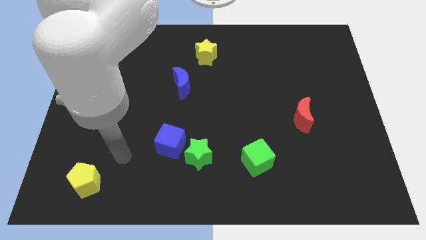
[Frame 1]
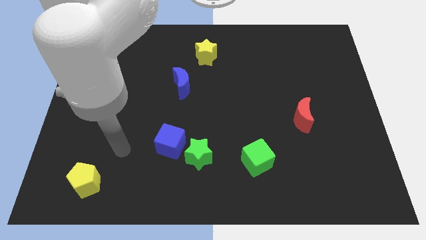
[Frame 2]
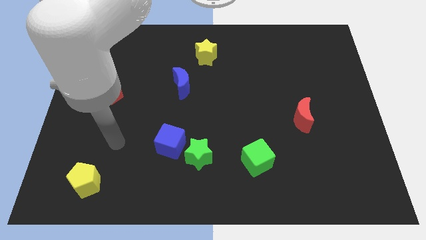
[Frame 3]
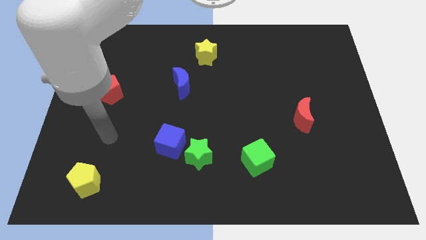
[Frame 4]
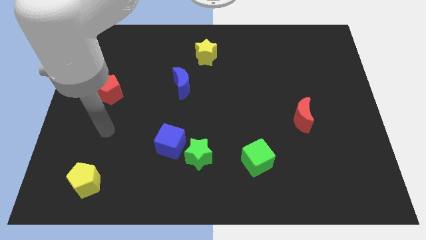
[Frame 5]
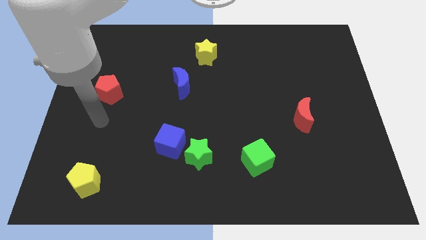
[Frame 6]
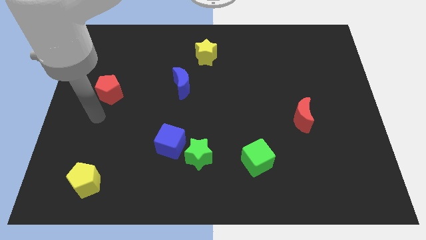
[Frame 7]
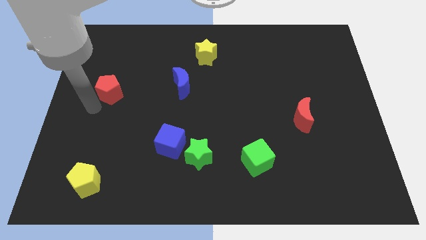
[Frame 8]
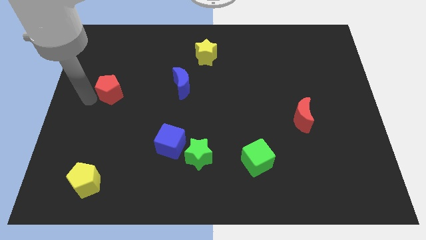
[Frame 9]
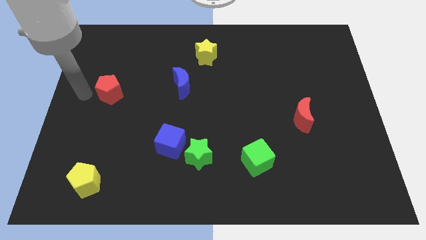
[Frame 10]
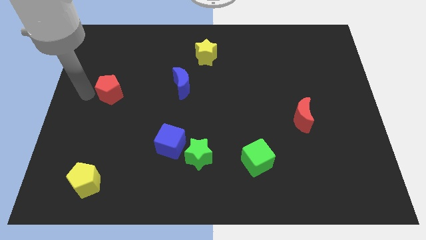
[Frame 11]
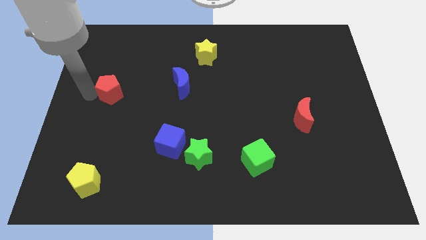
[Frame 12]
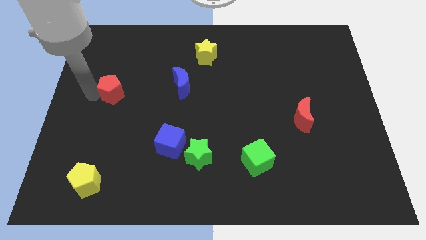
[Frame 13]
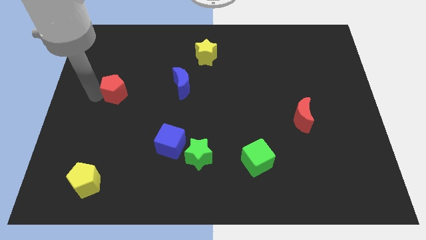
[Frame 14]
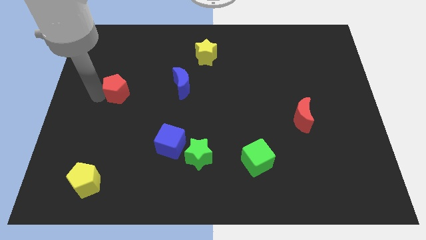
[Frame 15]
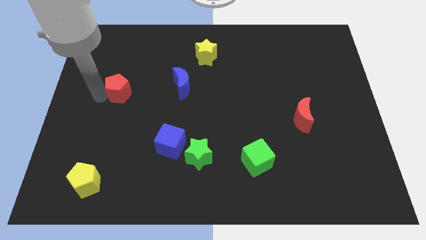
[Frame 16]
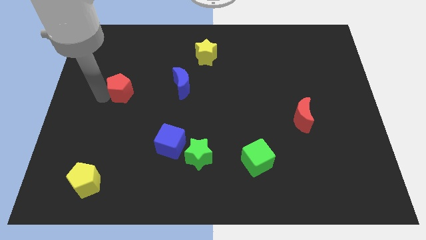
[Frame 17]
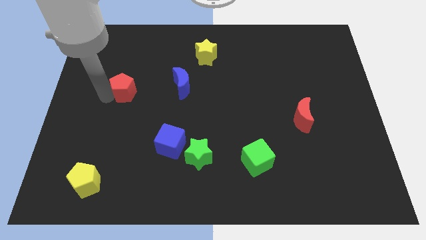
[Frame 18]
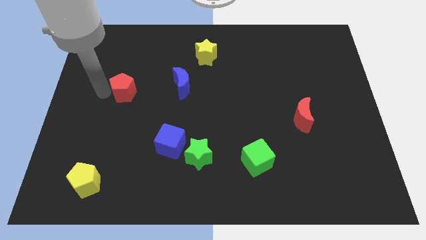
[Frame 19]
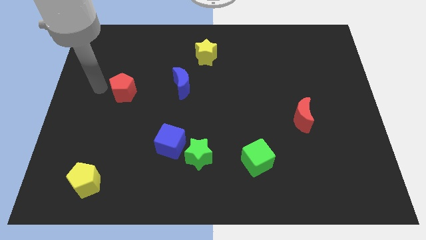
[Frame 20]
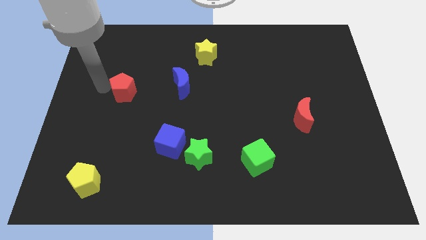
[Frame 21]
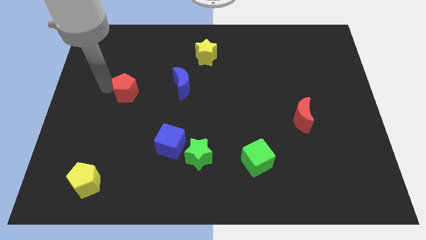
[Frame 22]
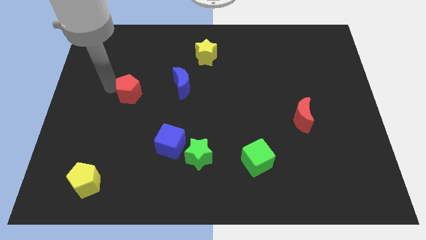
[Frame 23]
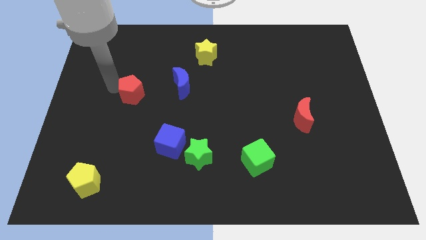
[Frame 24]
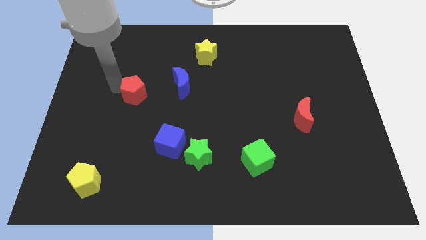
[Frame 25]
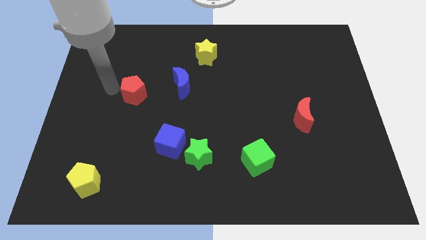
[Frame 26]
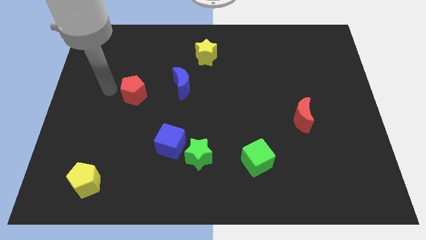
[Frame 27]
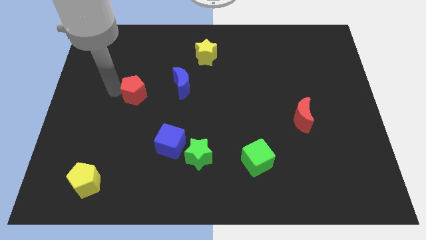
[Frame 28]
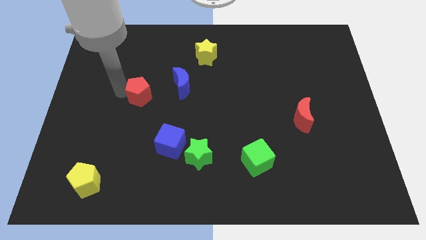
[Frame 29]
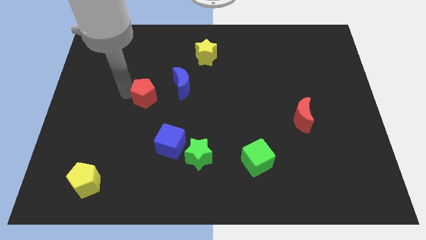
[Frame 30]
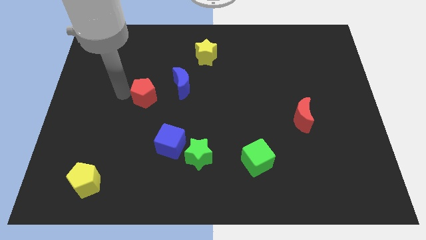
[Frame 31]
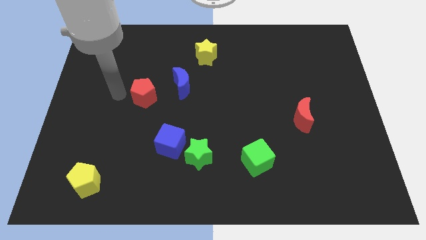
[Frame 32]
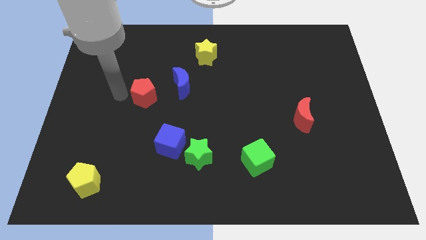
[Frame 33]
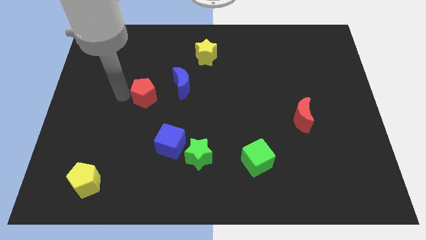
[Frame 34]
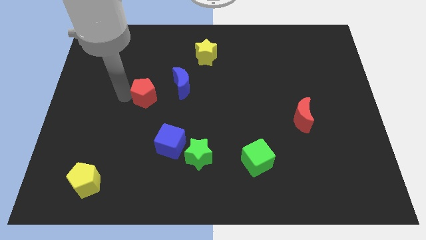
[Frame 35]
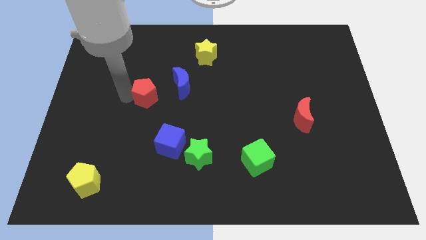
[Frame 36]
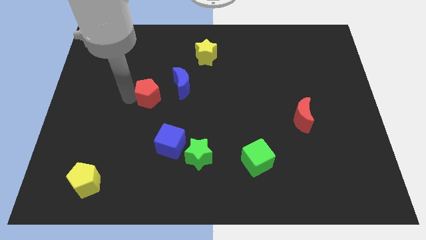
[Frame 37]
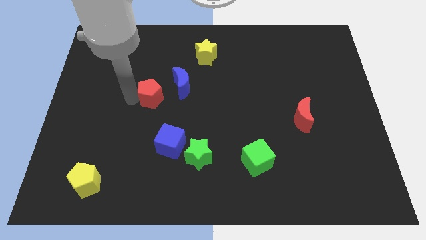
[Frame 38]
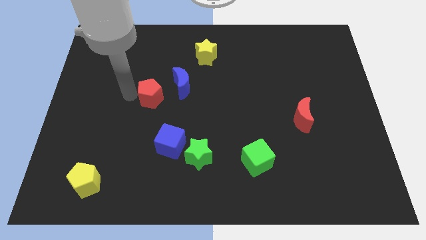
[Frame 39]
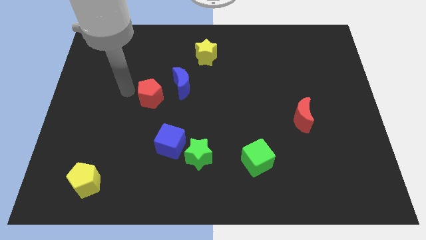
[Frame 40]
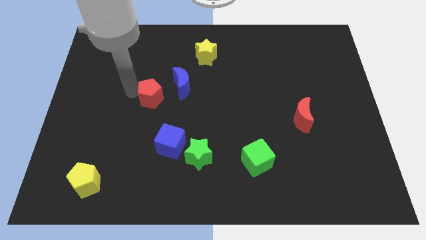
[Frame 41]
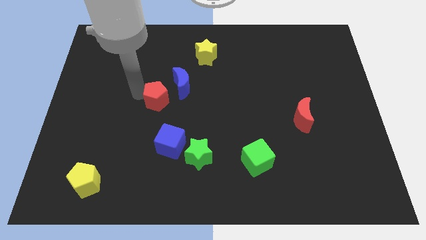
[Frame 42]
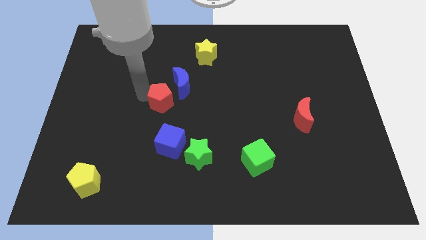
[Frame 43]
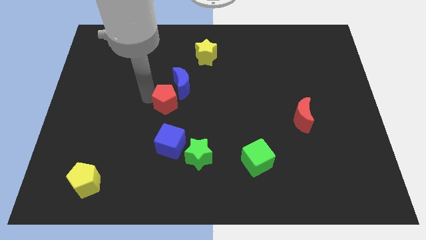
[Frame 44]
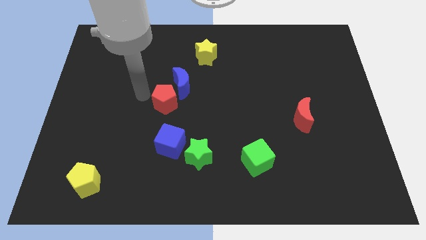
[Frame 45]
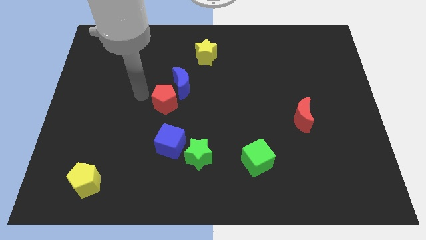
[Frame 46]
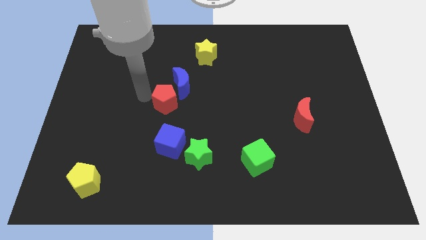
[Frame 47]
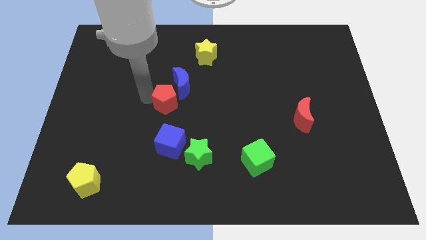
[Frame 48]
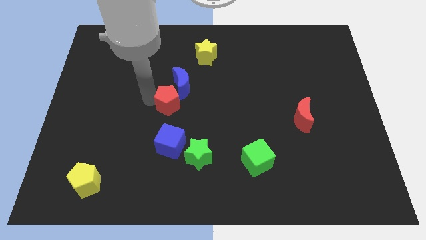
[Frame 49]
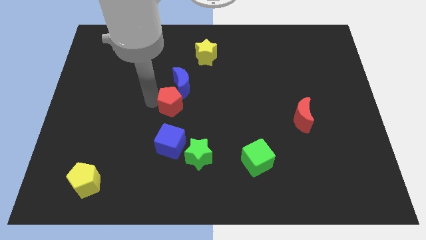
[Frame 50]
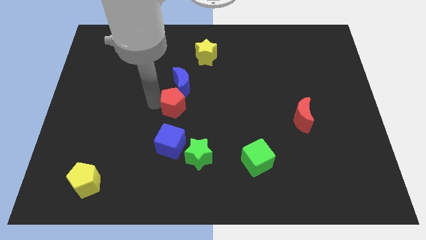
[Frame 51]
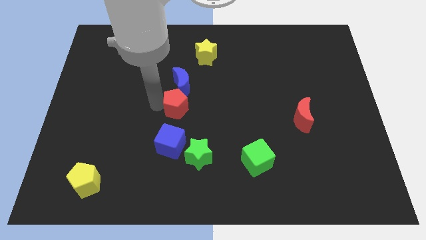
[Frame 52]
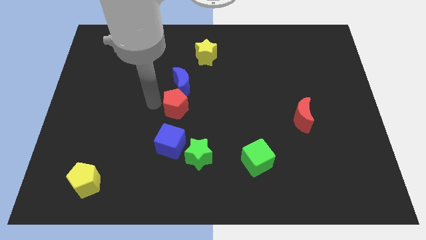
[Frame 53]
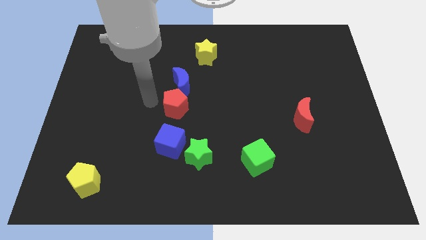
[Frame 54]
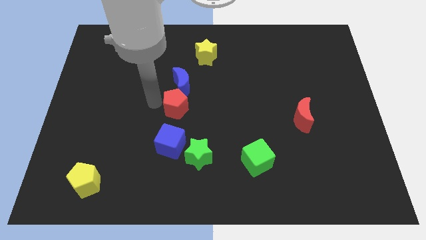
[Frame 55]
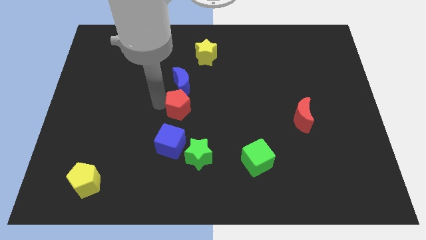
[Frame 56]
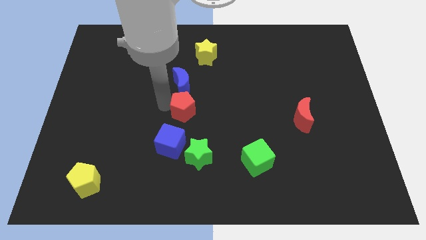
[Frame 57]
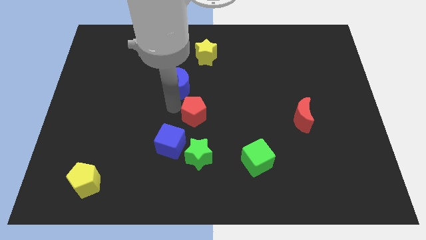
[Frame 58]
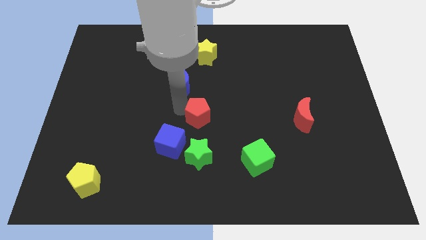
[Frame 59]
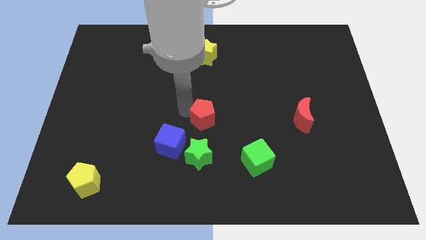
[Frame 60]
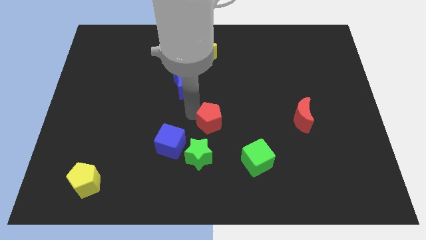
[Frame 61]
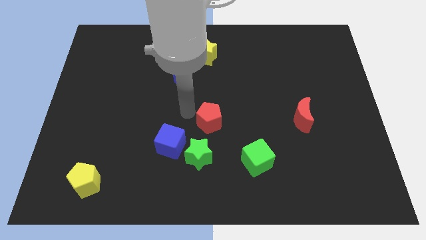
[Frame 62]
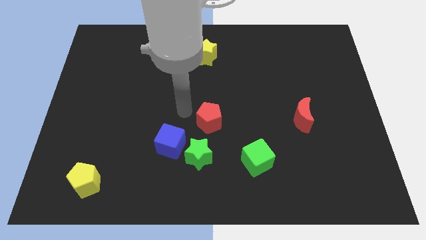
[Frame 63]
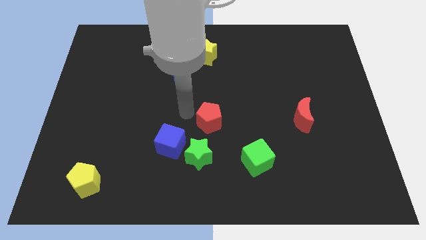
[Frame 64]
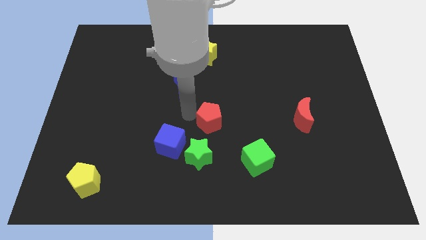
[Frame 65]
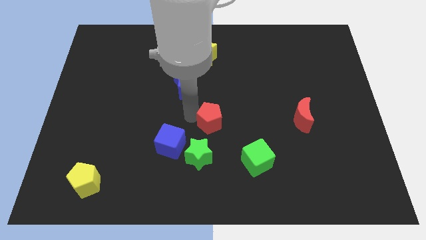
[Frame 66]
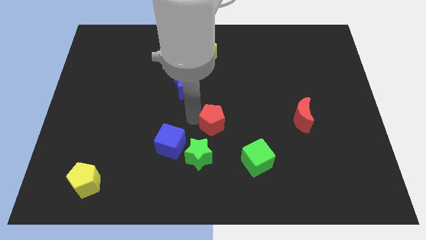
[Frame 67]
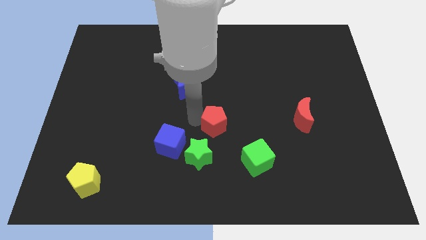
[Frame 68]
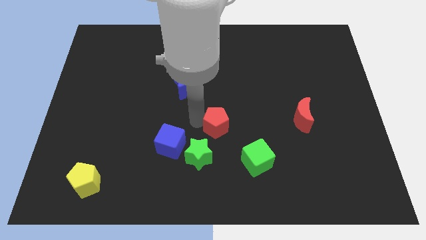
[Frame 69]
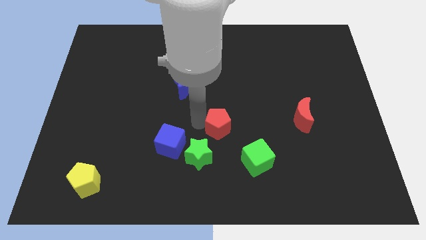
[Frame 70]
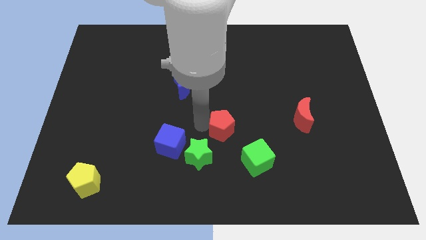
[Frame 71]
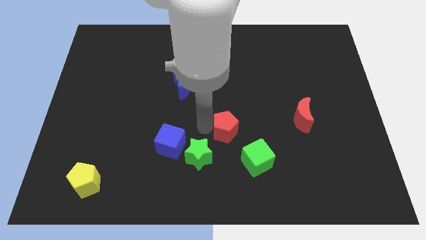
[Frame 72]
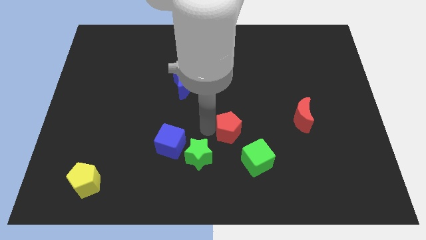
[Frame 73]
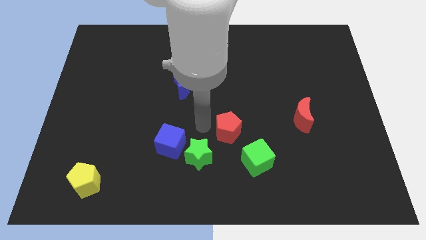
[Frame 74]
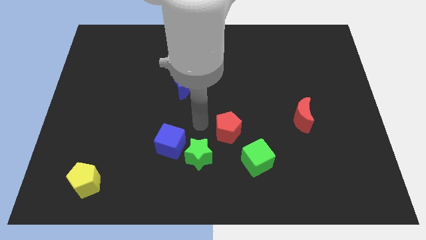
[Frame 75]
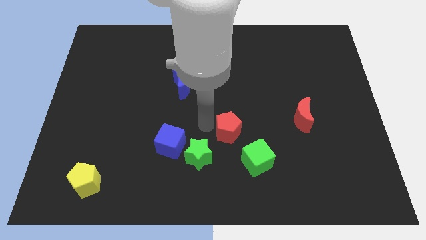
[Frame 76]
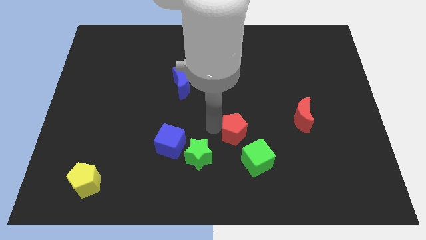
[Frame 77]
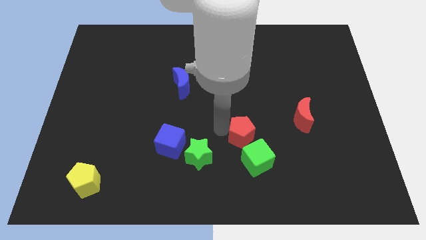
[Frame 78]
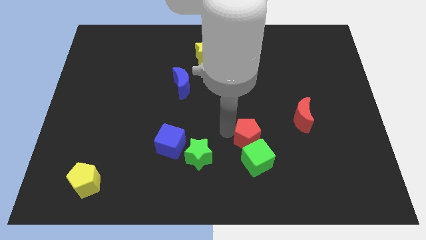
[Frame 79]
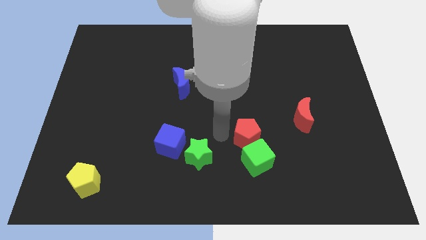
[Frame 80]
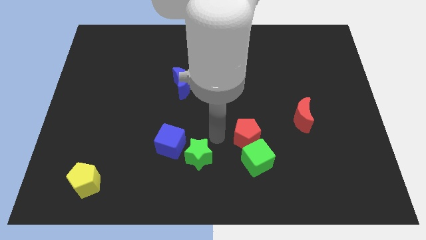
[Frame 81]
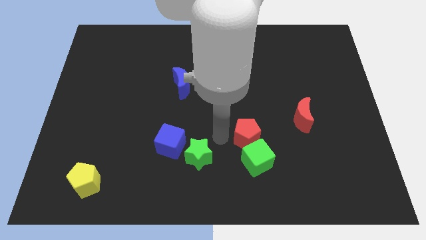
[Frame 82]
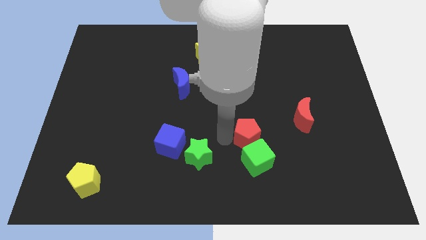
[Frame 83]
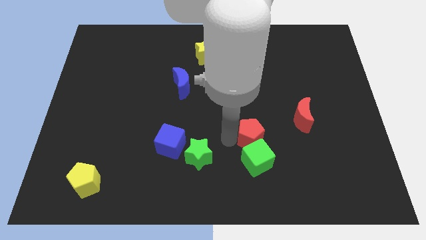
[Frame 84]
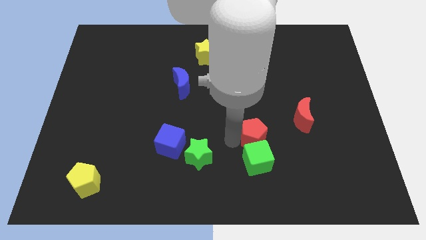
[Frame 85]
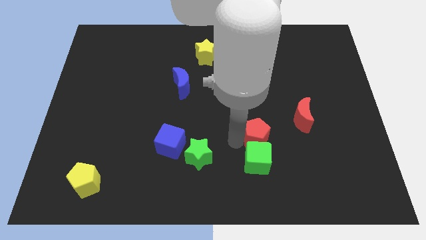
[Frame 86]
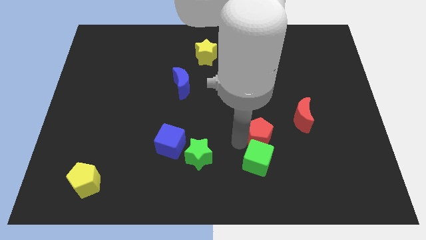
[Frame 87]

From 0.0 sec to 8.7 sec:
push the red pentagon diagonally down and to the left of the red moon
